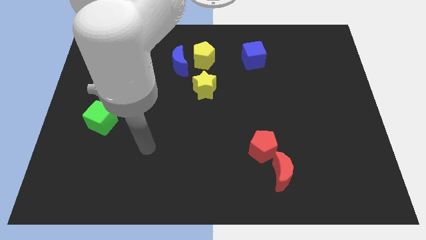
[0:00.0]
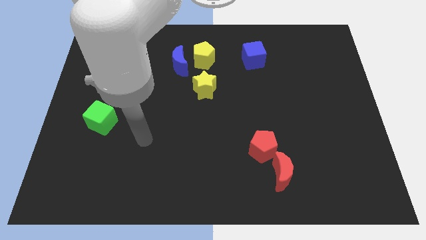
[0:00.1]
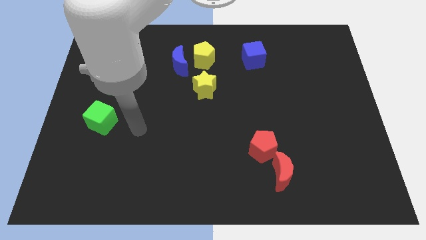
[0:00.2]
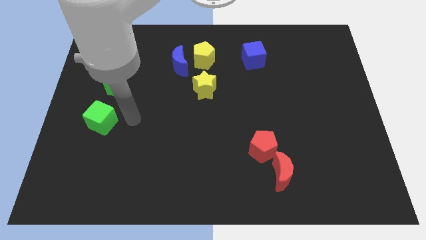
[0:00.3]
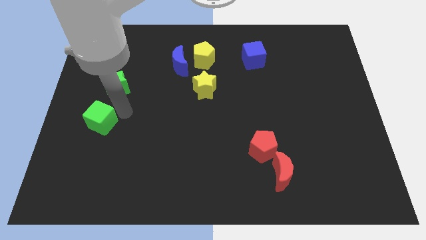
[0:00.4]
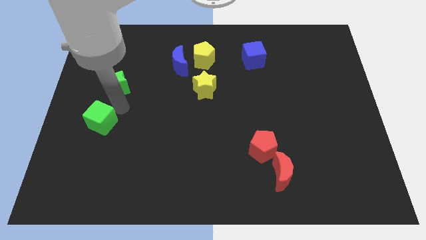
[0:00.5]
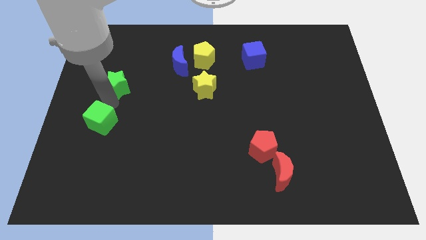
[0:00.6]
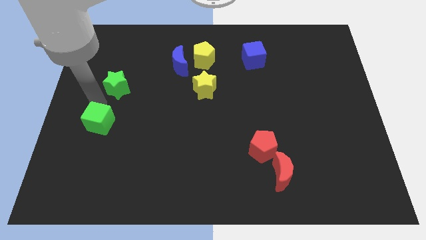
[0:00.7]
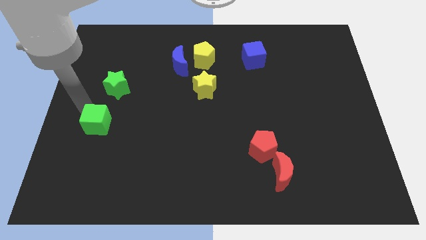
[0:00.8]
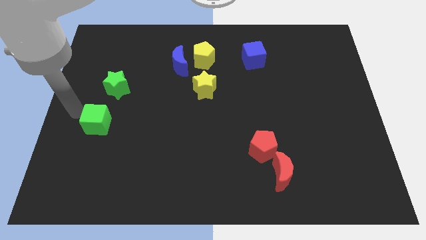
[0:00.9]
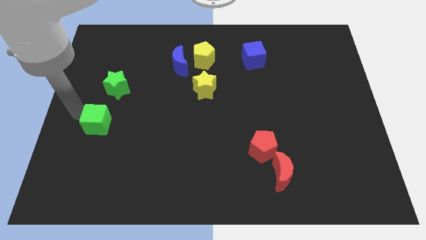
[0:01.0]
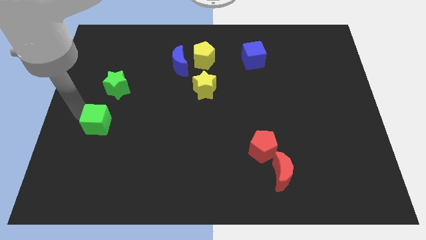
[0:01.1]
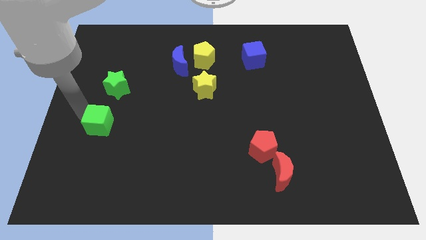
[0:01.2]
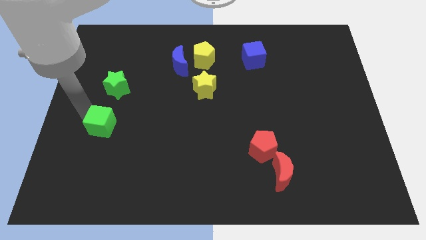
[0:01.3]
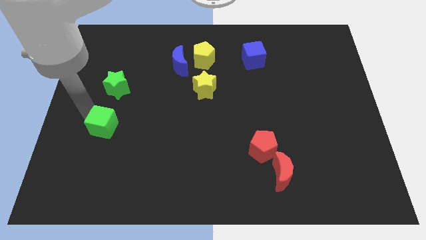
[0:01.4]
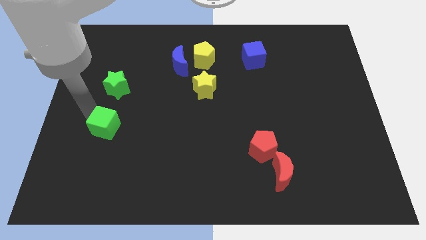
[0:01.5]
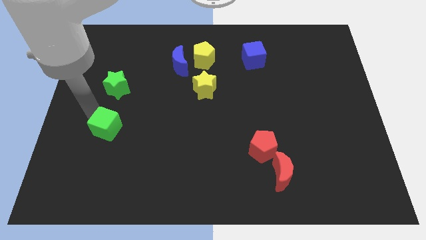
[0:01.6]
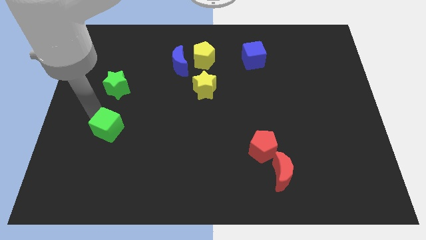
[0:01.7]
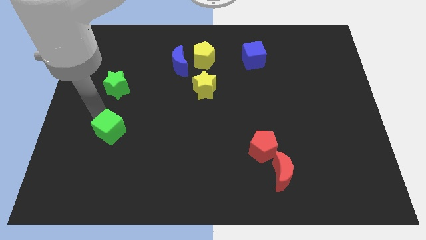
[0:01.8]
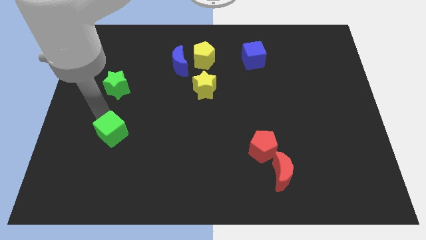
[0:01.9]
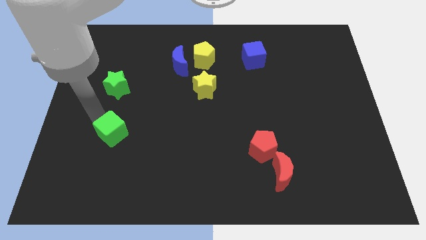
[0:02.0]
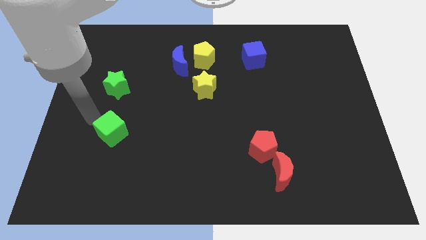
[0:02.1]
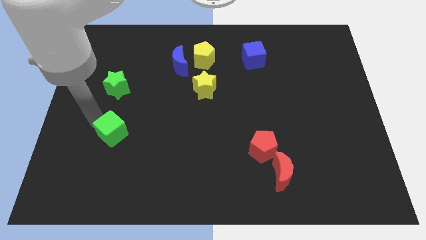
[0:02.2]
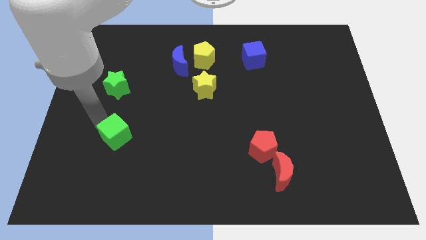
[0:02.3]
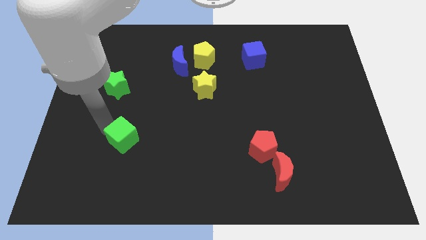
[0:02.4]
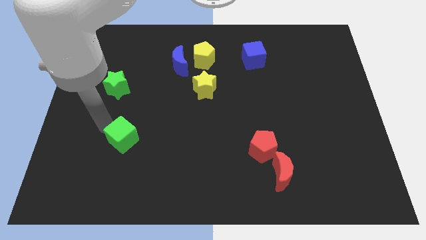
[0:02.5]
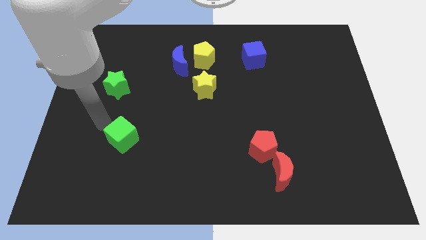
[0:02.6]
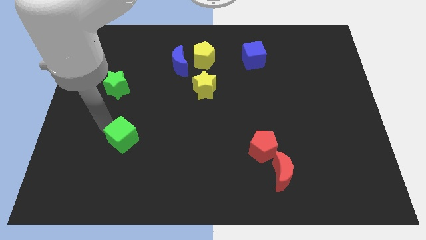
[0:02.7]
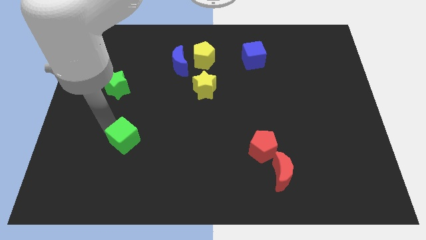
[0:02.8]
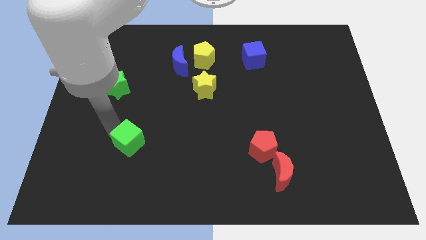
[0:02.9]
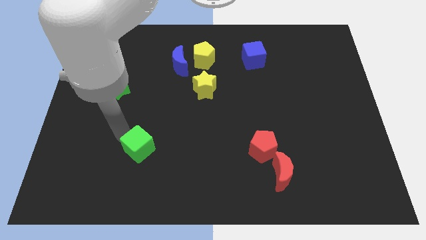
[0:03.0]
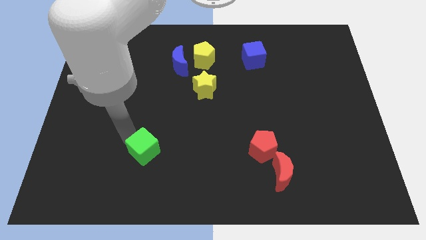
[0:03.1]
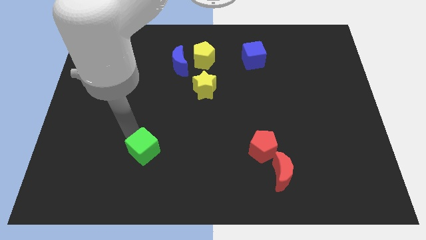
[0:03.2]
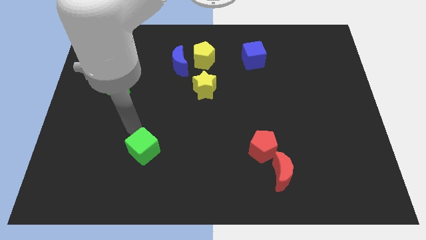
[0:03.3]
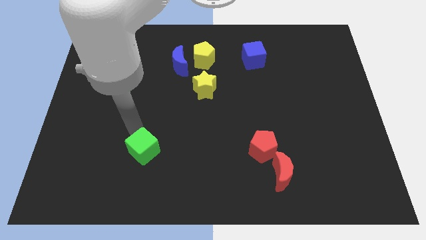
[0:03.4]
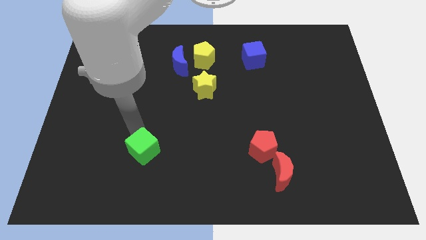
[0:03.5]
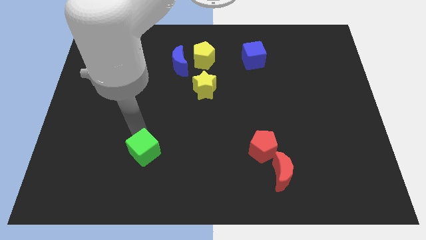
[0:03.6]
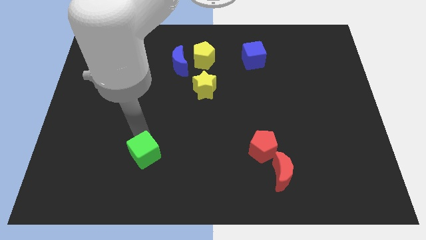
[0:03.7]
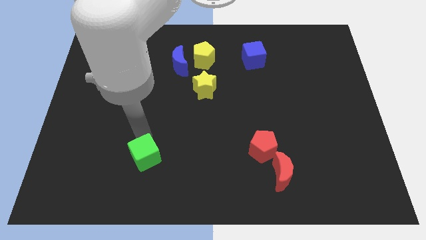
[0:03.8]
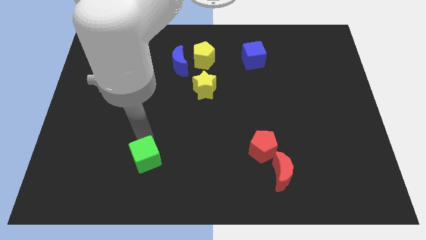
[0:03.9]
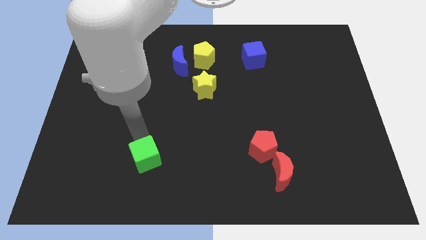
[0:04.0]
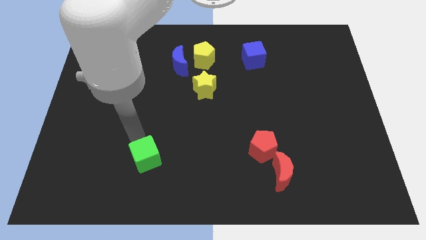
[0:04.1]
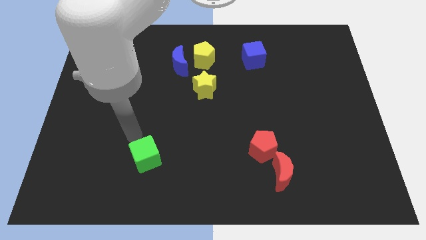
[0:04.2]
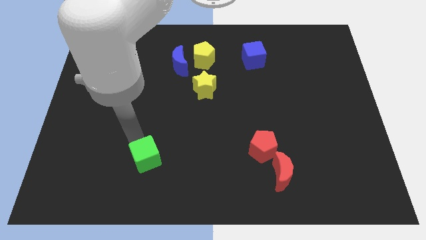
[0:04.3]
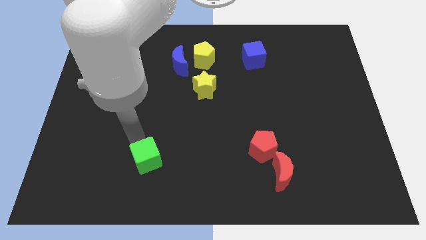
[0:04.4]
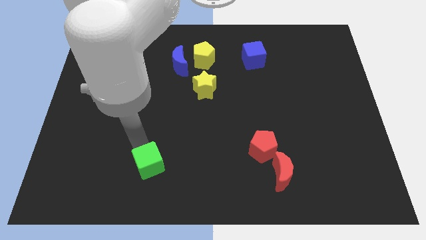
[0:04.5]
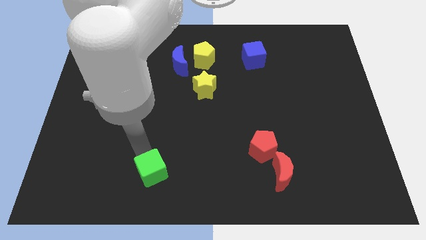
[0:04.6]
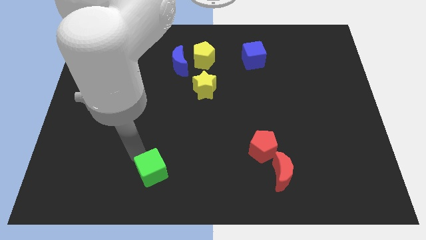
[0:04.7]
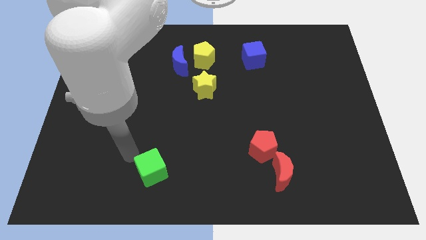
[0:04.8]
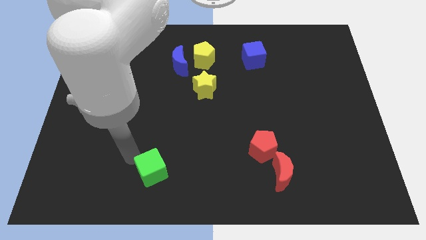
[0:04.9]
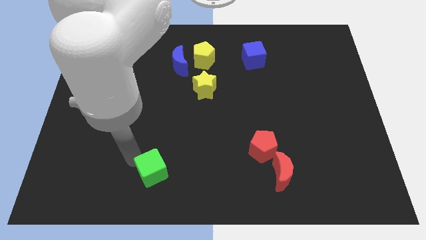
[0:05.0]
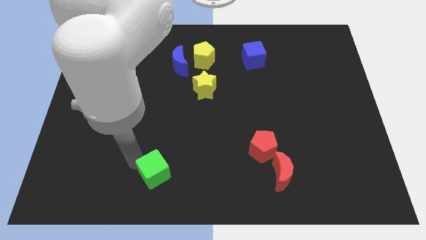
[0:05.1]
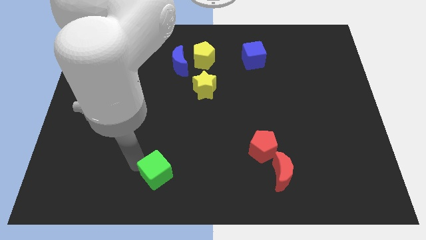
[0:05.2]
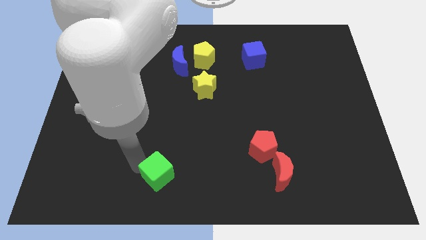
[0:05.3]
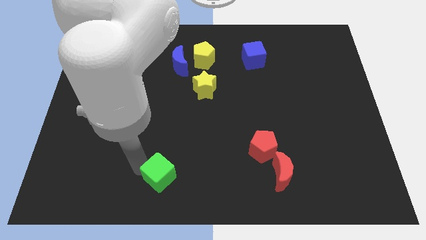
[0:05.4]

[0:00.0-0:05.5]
slide the green cube to the bottom

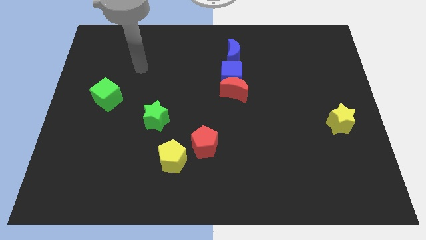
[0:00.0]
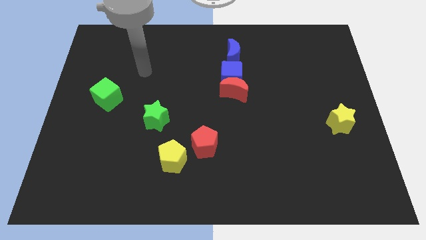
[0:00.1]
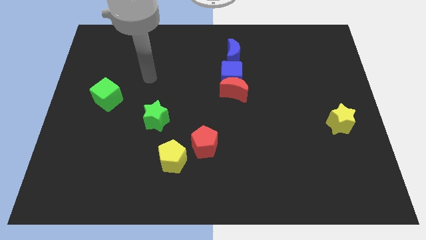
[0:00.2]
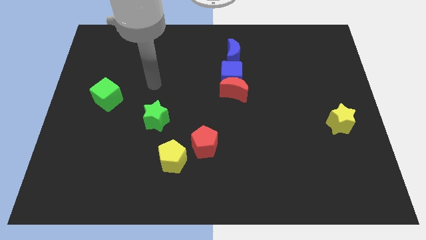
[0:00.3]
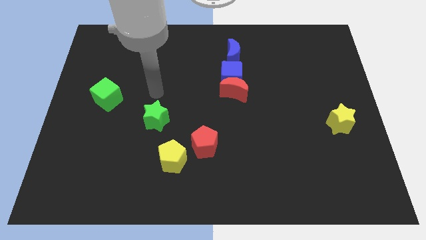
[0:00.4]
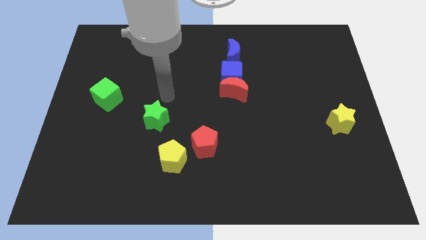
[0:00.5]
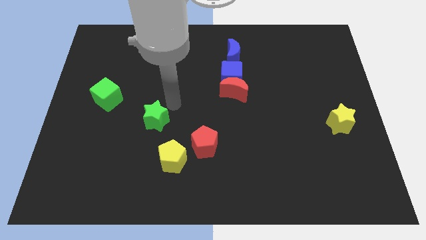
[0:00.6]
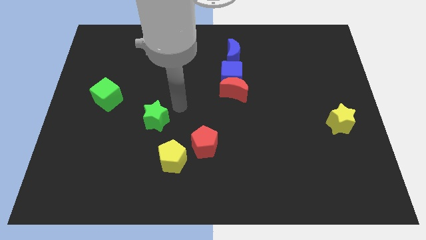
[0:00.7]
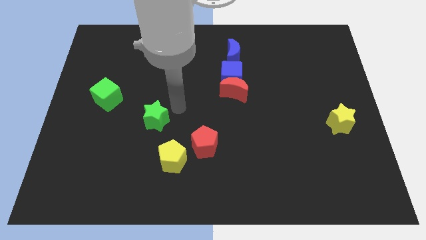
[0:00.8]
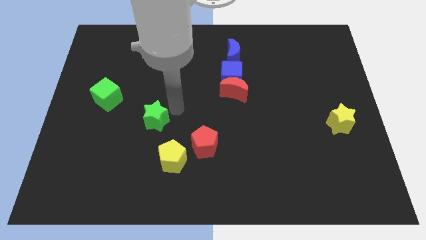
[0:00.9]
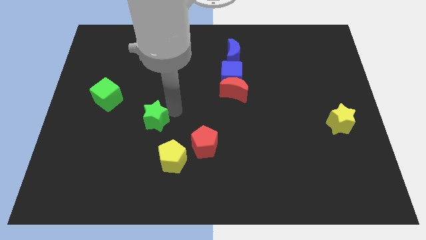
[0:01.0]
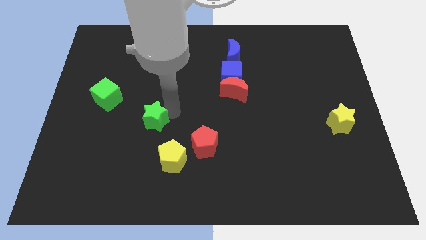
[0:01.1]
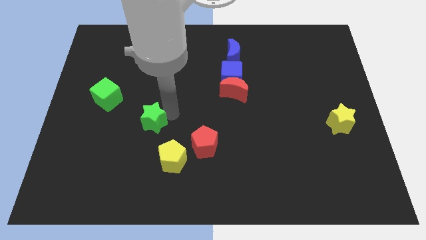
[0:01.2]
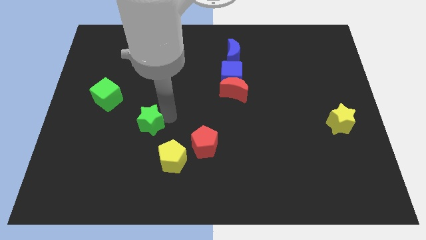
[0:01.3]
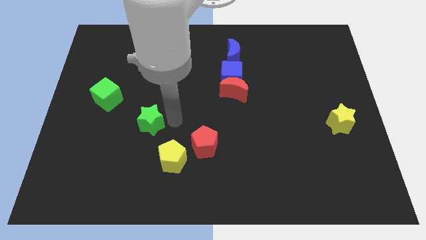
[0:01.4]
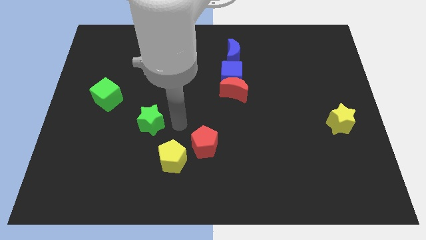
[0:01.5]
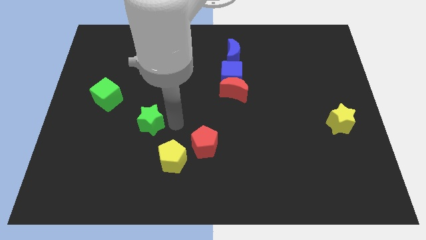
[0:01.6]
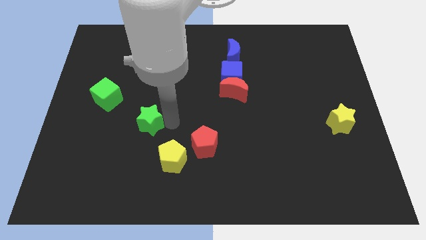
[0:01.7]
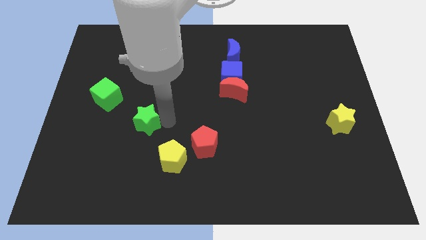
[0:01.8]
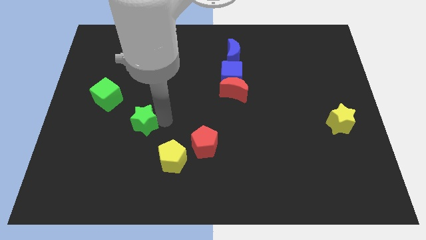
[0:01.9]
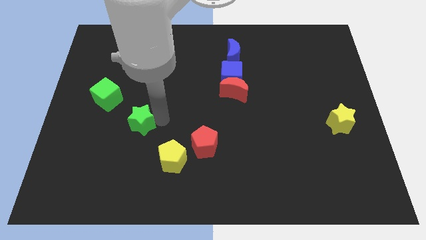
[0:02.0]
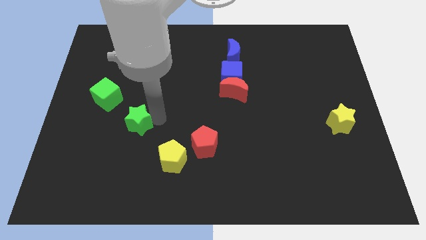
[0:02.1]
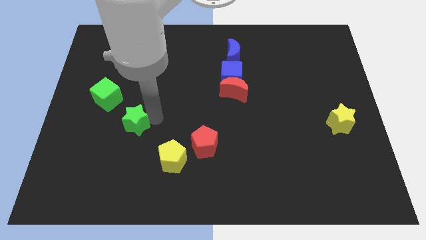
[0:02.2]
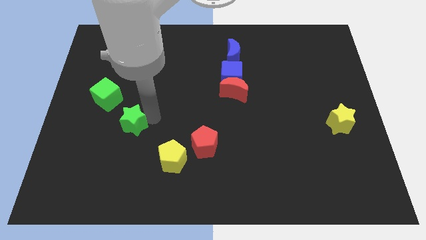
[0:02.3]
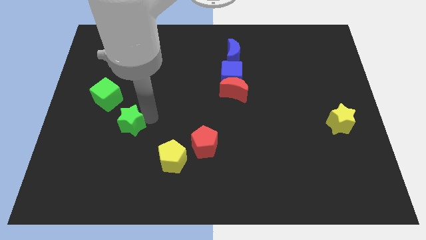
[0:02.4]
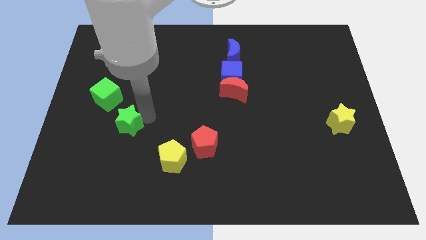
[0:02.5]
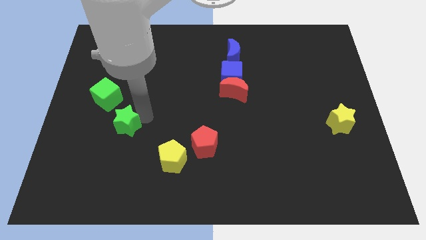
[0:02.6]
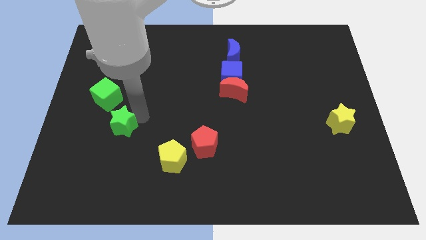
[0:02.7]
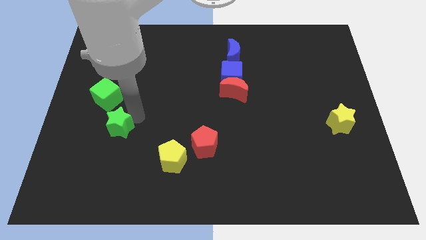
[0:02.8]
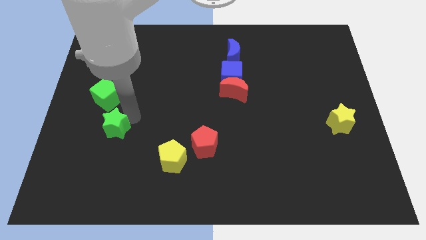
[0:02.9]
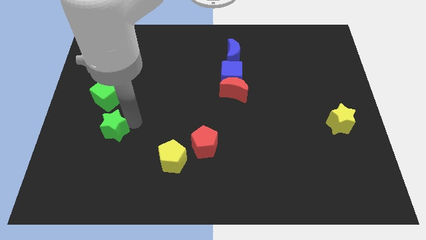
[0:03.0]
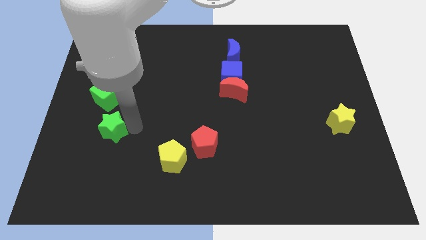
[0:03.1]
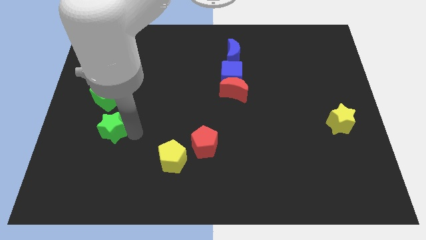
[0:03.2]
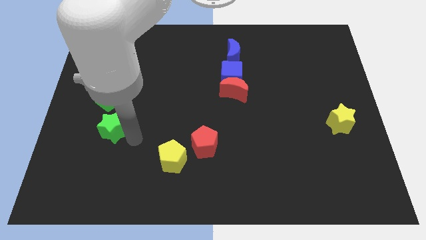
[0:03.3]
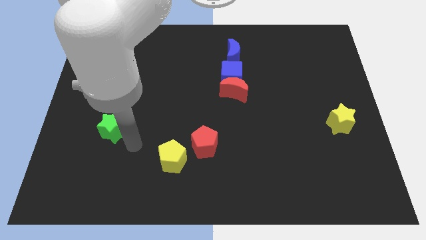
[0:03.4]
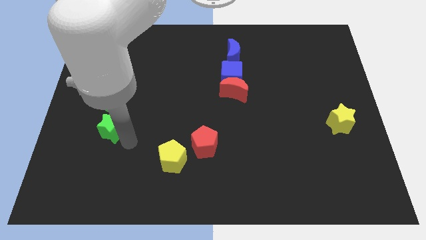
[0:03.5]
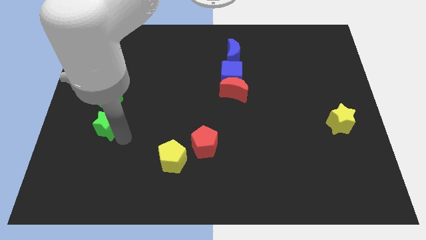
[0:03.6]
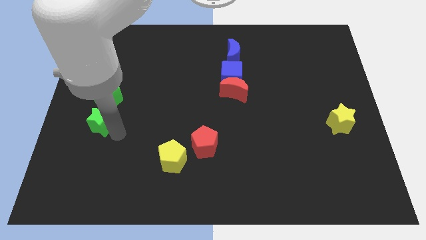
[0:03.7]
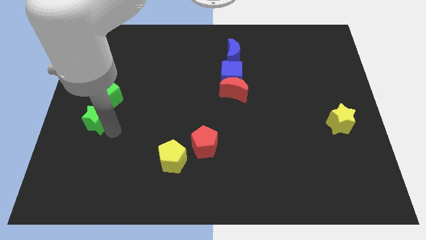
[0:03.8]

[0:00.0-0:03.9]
slide the green star to the left side
